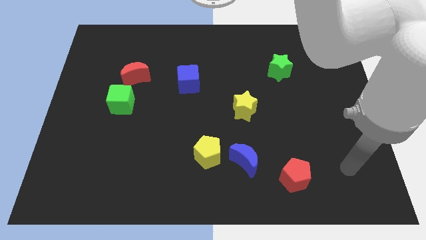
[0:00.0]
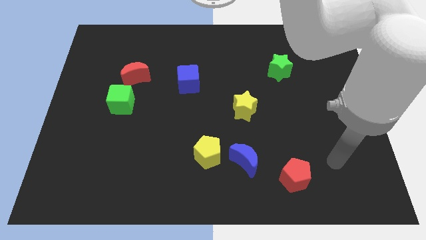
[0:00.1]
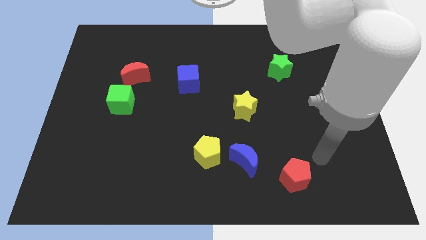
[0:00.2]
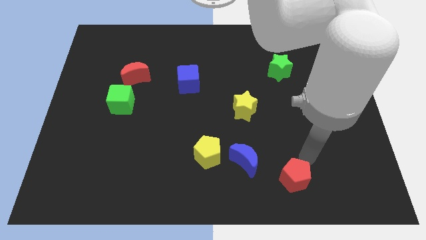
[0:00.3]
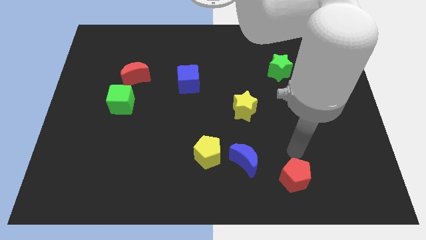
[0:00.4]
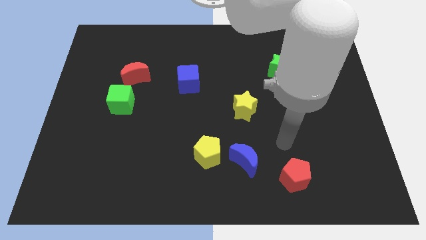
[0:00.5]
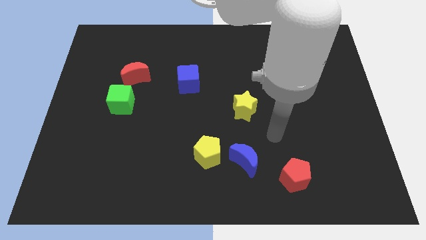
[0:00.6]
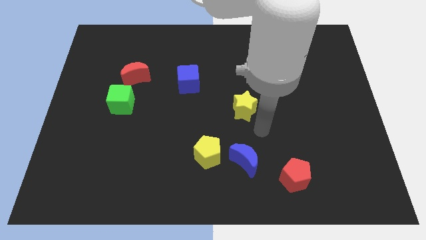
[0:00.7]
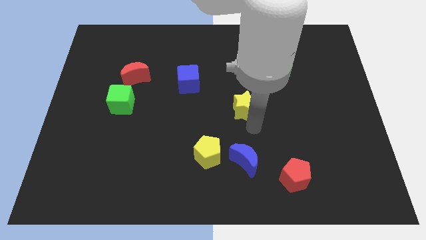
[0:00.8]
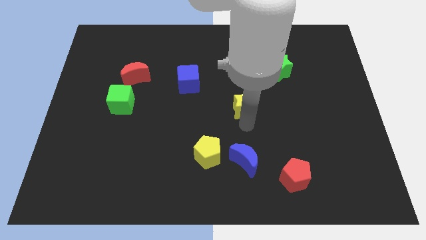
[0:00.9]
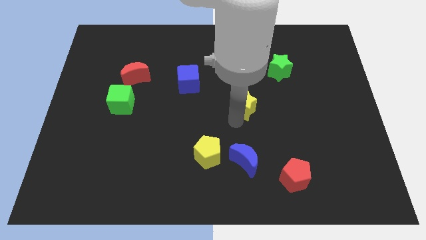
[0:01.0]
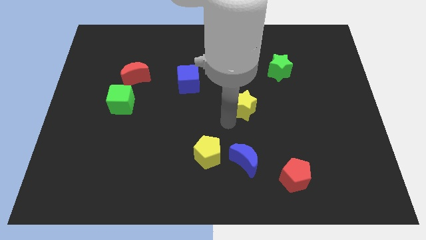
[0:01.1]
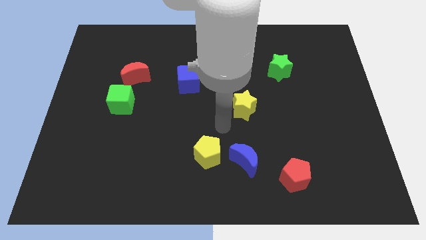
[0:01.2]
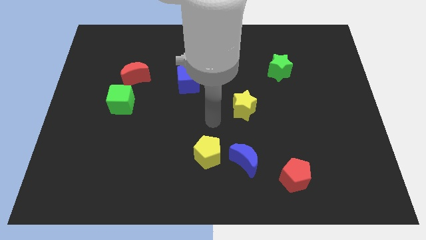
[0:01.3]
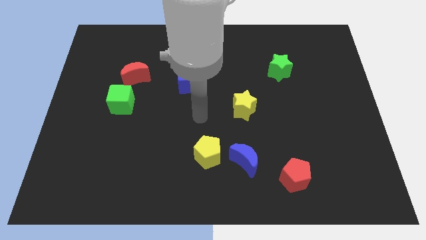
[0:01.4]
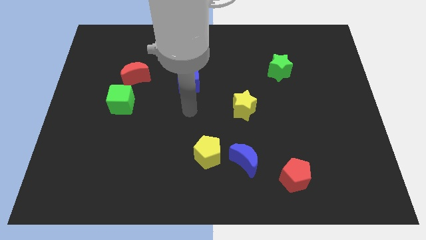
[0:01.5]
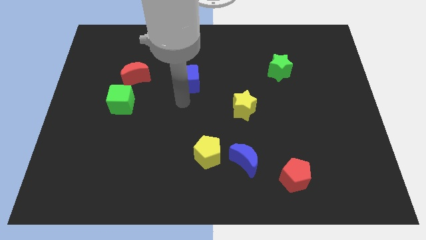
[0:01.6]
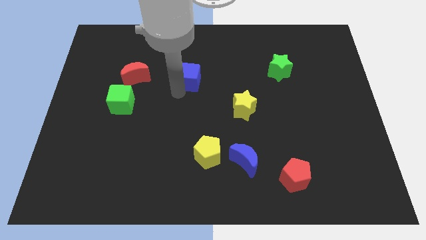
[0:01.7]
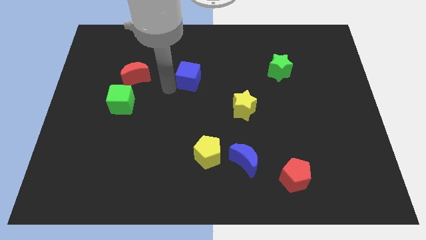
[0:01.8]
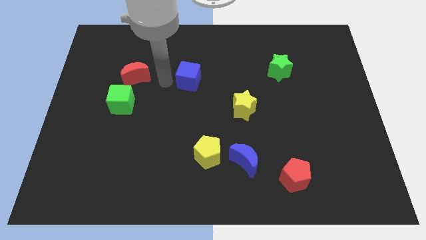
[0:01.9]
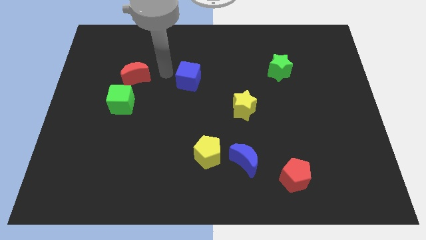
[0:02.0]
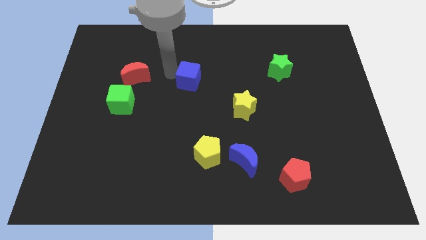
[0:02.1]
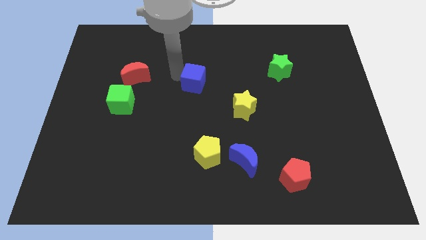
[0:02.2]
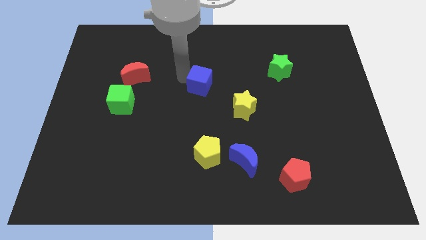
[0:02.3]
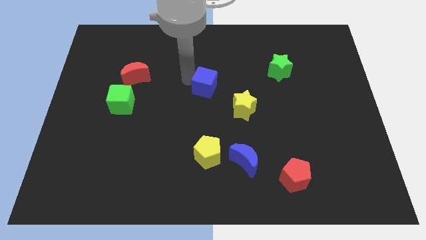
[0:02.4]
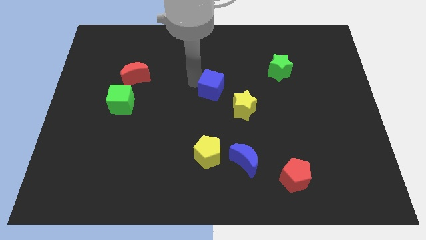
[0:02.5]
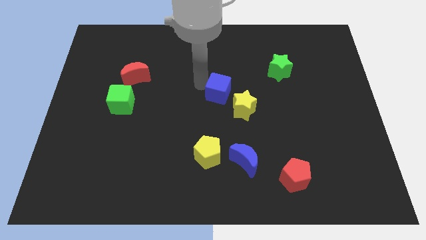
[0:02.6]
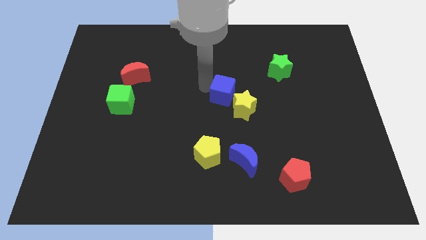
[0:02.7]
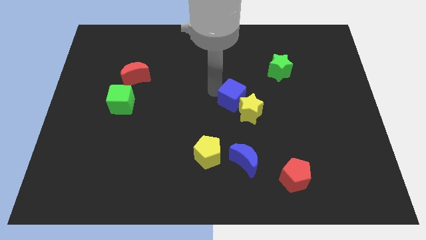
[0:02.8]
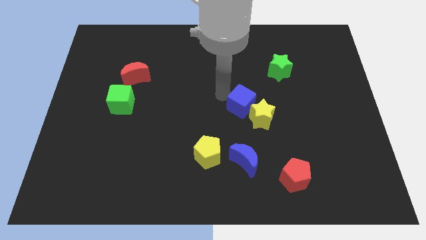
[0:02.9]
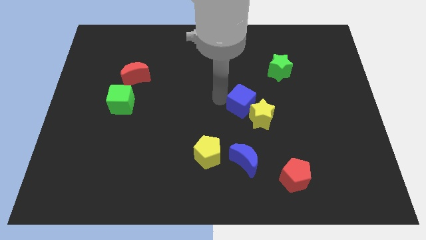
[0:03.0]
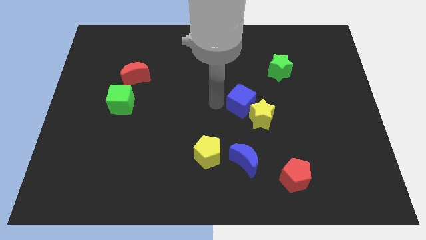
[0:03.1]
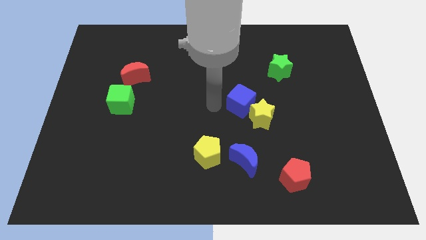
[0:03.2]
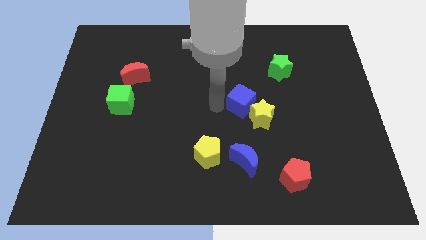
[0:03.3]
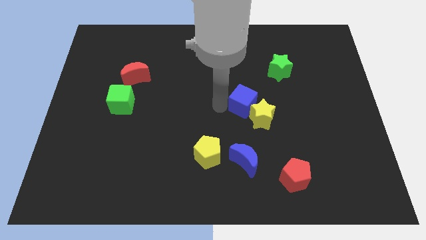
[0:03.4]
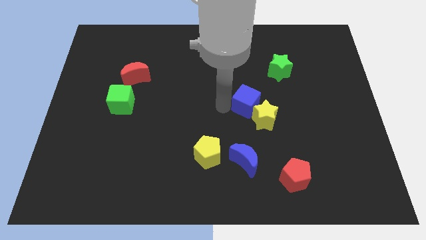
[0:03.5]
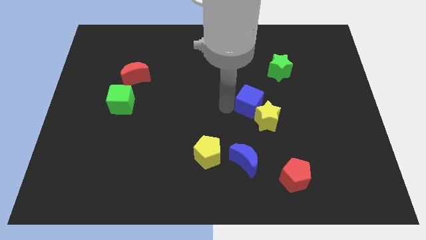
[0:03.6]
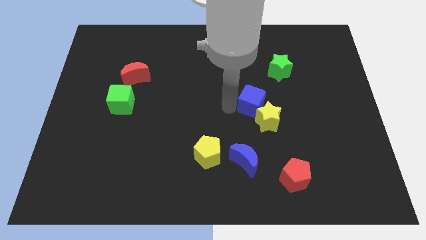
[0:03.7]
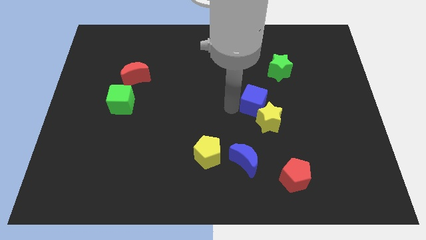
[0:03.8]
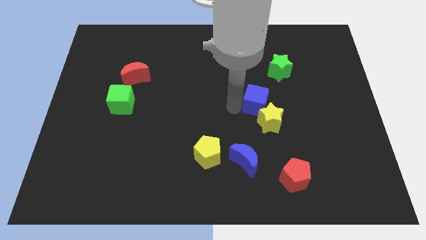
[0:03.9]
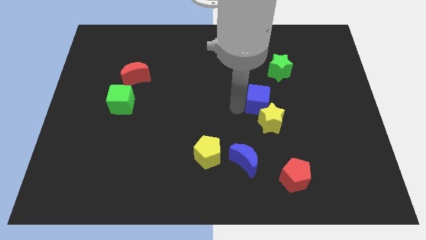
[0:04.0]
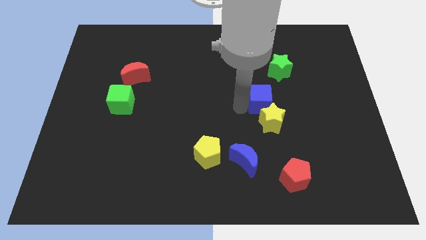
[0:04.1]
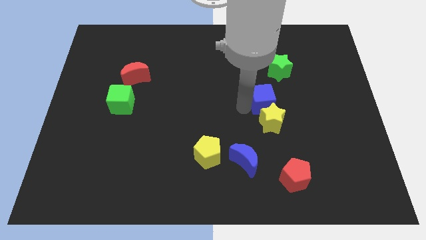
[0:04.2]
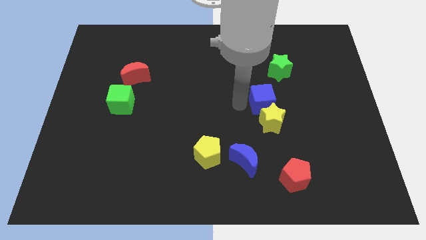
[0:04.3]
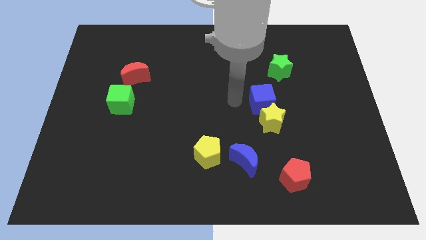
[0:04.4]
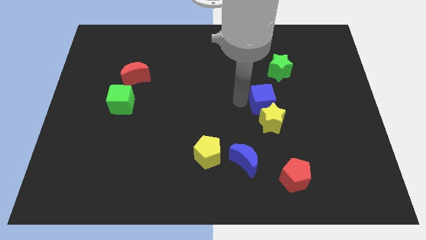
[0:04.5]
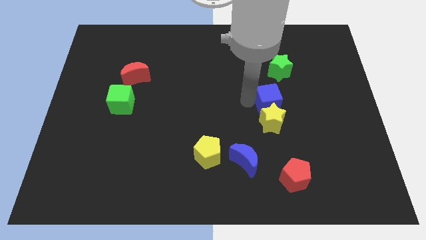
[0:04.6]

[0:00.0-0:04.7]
push the blue cube to the bottom of the green star

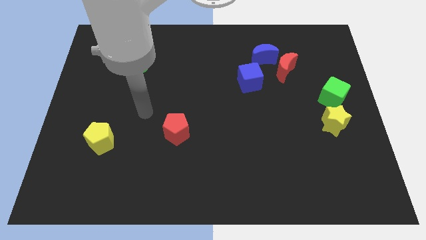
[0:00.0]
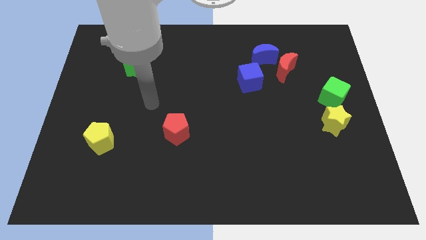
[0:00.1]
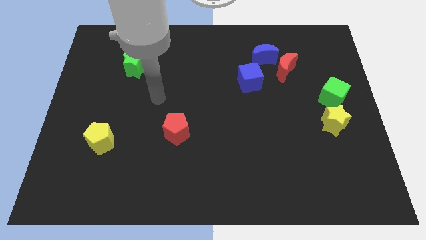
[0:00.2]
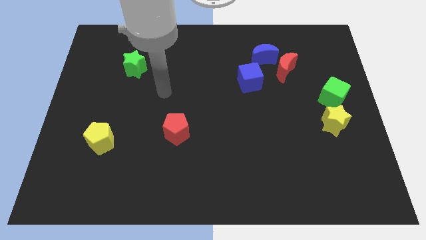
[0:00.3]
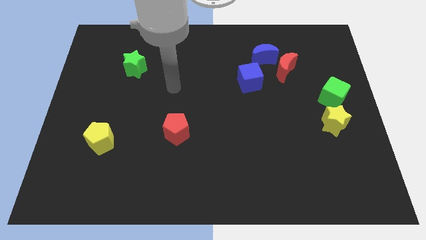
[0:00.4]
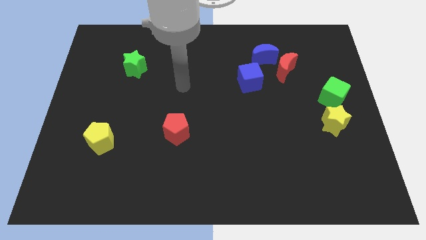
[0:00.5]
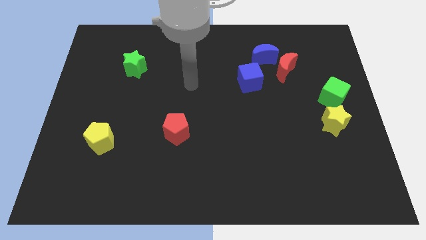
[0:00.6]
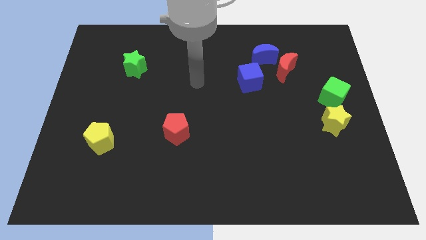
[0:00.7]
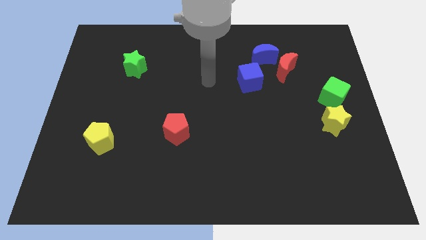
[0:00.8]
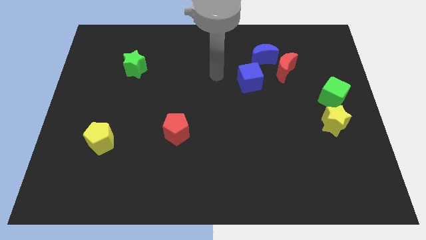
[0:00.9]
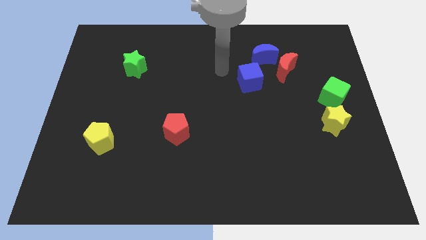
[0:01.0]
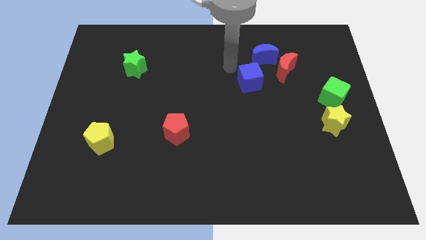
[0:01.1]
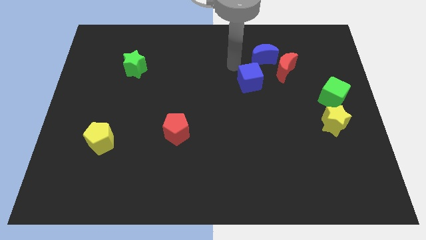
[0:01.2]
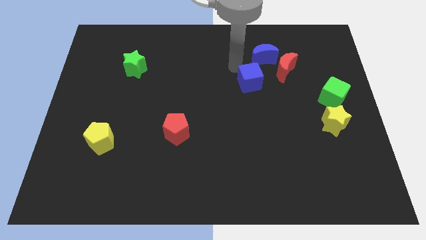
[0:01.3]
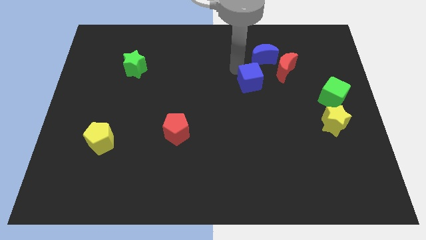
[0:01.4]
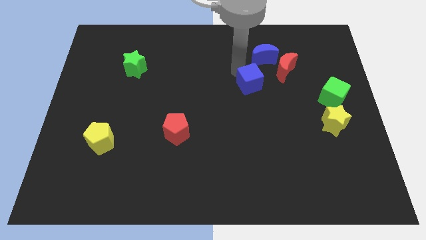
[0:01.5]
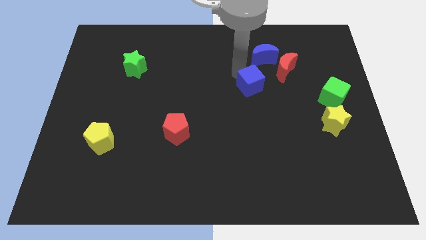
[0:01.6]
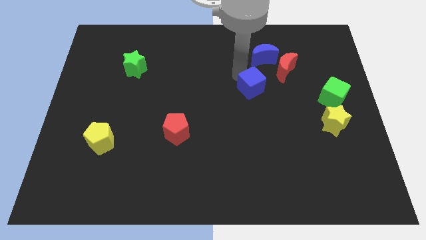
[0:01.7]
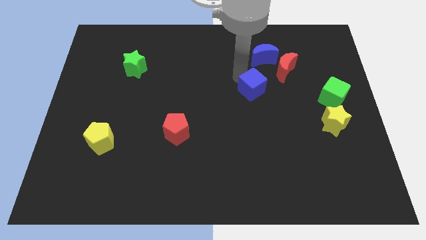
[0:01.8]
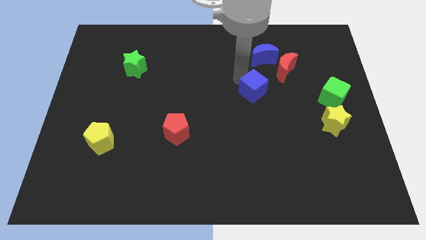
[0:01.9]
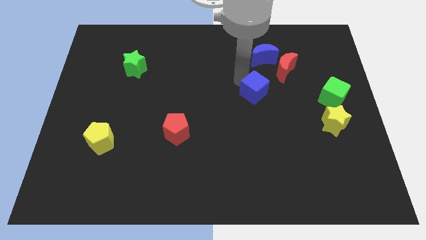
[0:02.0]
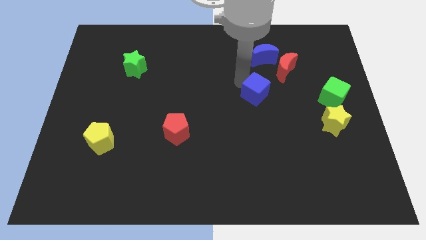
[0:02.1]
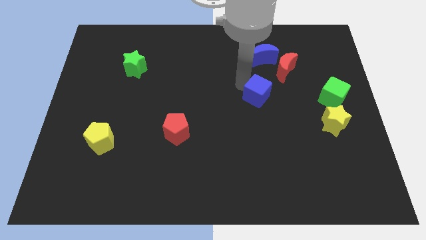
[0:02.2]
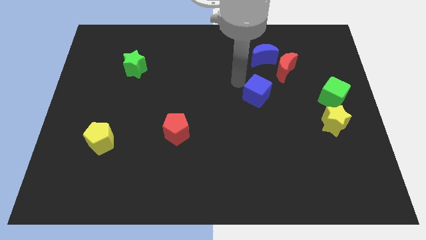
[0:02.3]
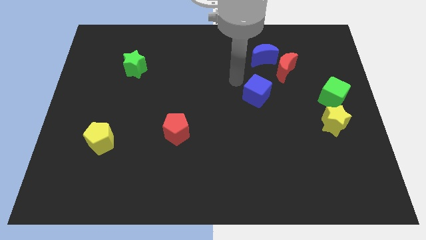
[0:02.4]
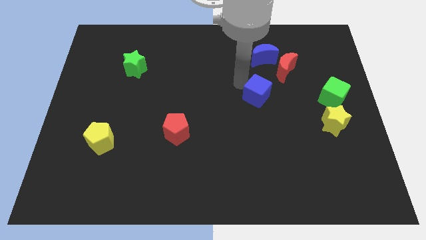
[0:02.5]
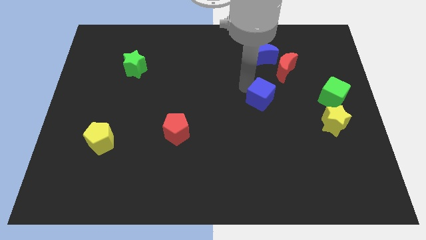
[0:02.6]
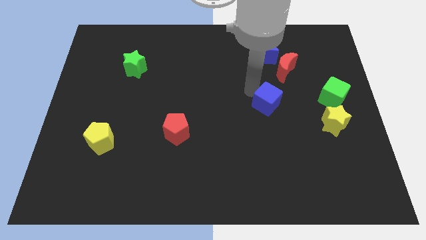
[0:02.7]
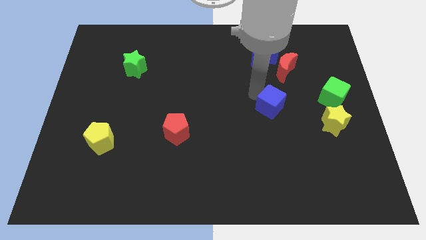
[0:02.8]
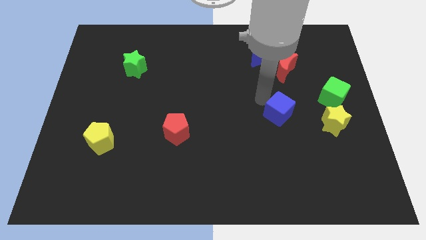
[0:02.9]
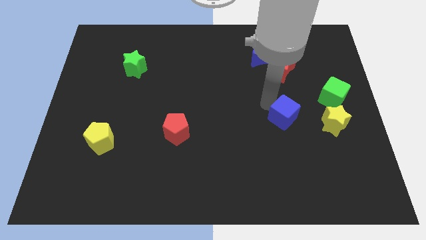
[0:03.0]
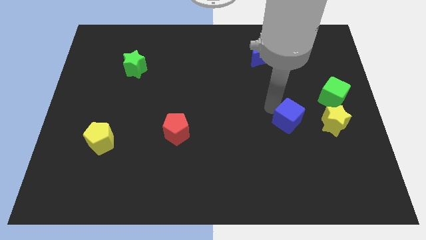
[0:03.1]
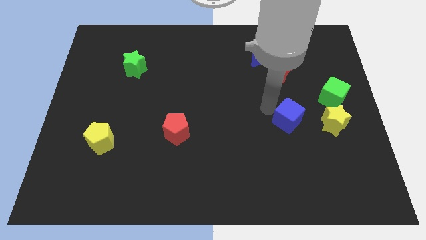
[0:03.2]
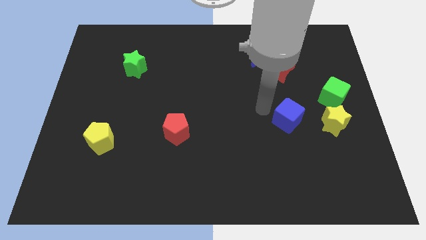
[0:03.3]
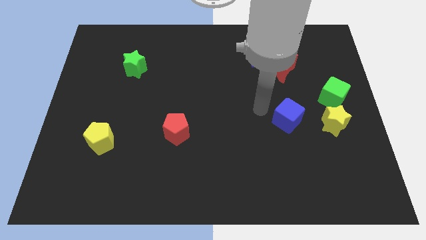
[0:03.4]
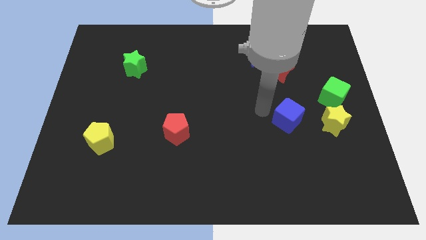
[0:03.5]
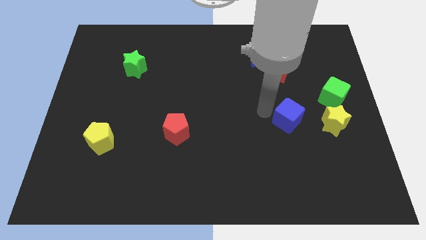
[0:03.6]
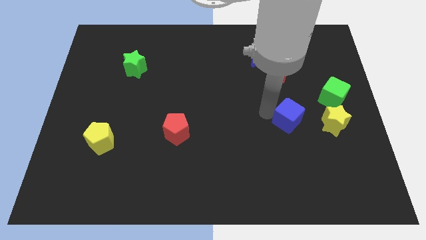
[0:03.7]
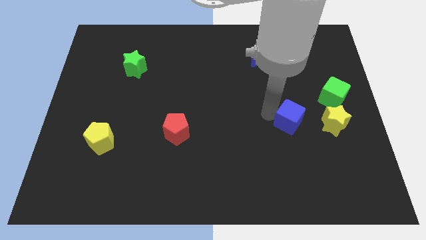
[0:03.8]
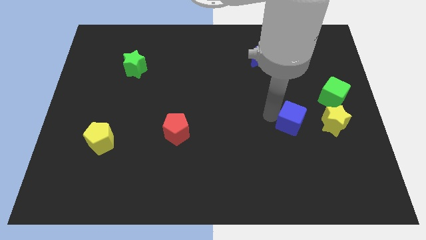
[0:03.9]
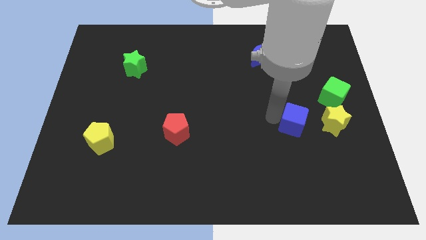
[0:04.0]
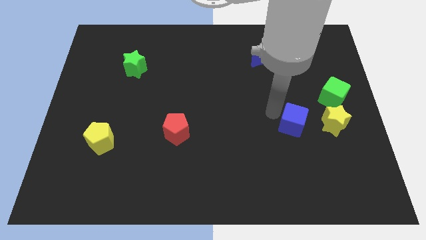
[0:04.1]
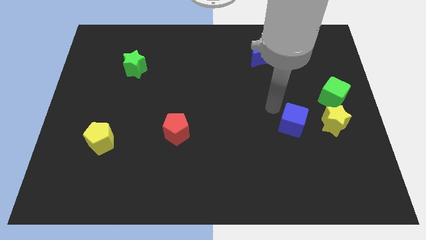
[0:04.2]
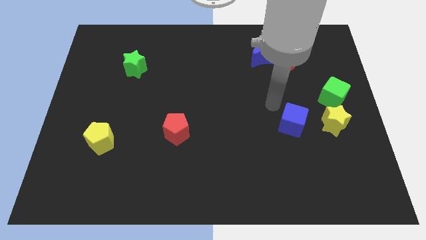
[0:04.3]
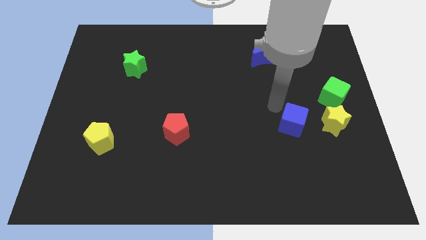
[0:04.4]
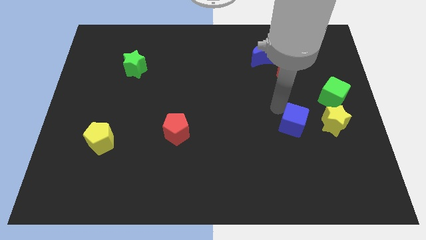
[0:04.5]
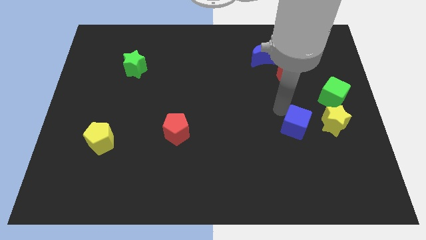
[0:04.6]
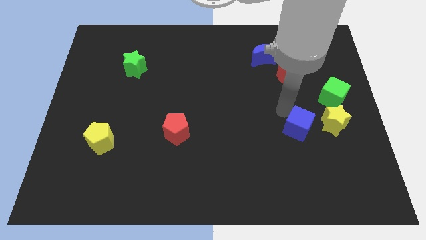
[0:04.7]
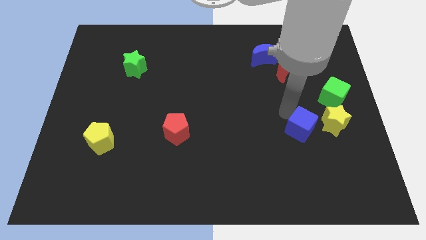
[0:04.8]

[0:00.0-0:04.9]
push the blue cube to the bottom left of the yellow star
